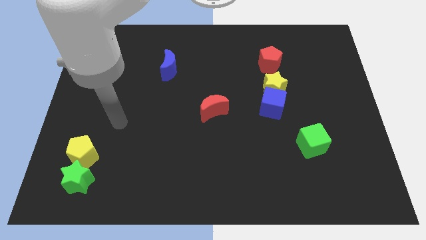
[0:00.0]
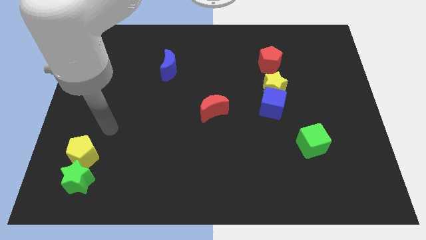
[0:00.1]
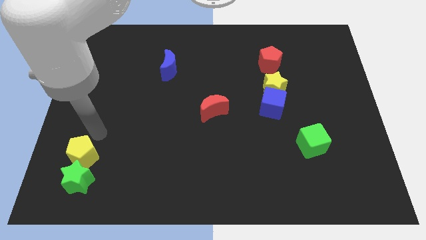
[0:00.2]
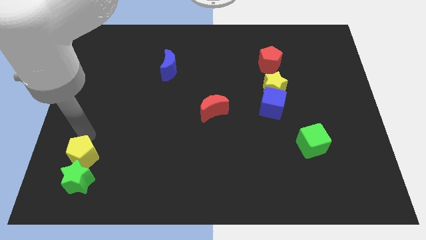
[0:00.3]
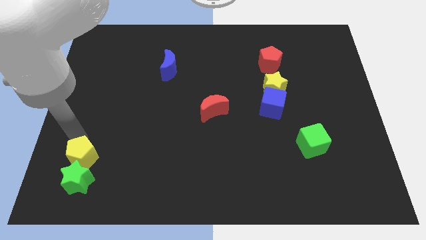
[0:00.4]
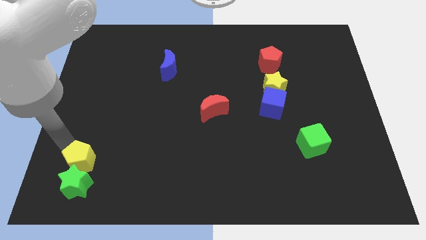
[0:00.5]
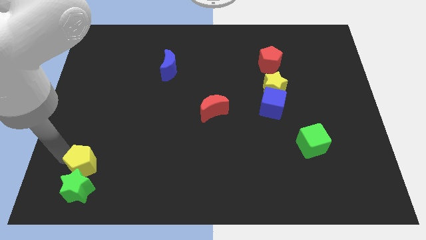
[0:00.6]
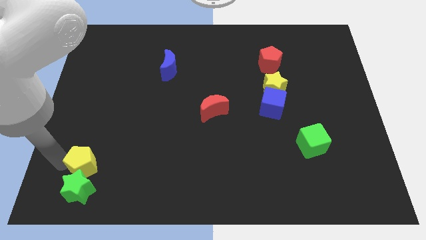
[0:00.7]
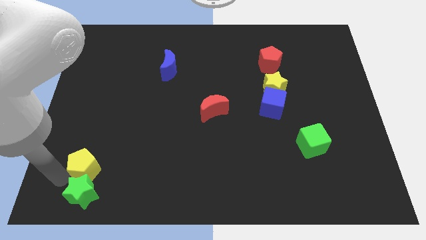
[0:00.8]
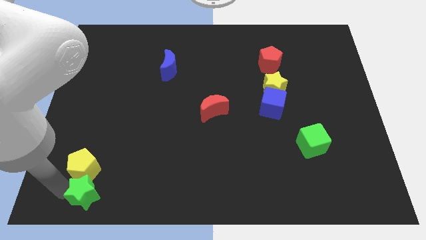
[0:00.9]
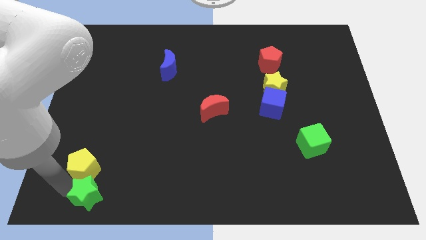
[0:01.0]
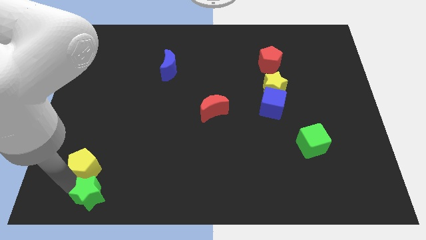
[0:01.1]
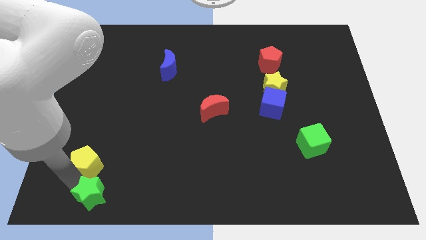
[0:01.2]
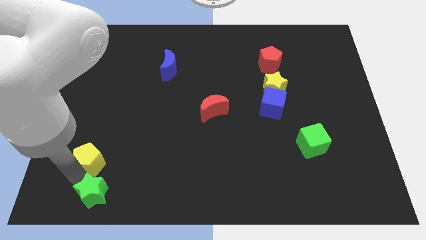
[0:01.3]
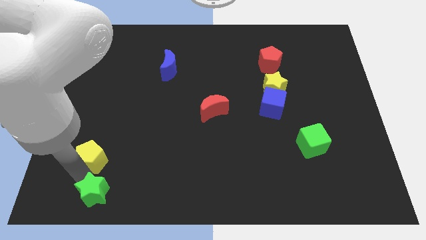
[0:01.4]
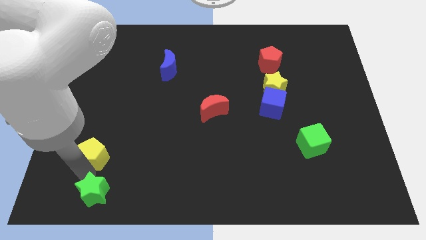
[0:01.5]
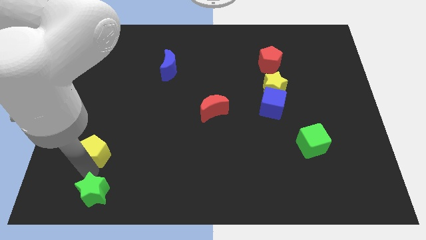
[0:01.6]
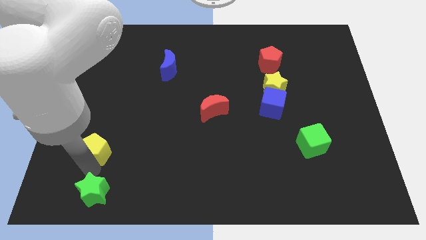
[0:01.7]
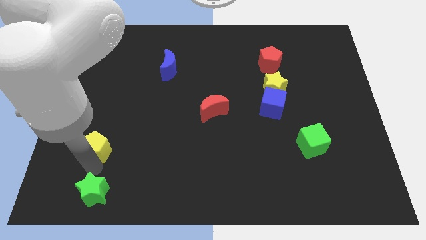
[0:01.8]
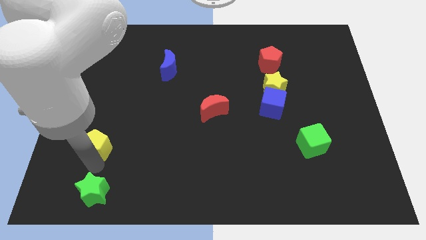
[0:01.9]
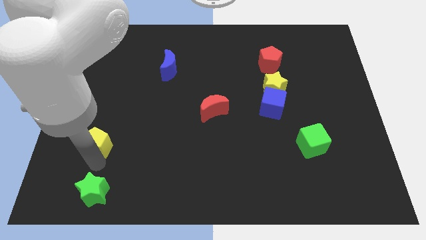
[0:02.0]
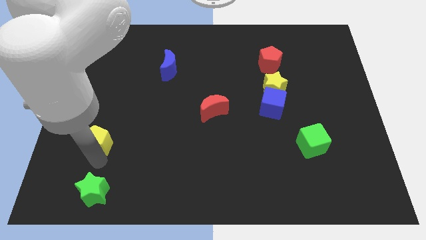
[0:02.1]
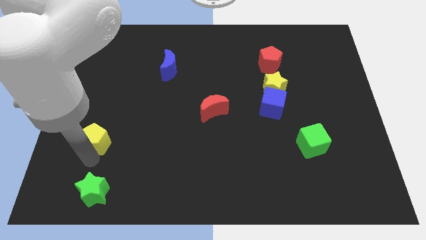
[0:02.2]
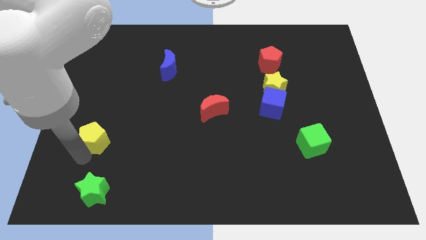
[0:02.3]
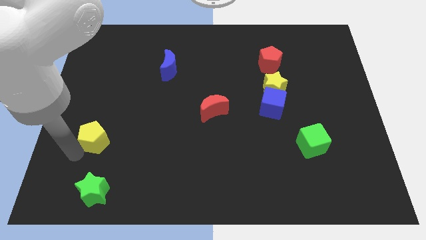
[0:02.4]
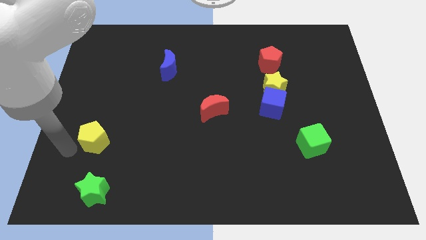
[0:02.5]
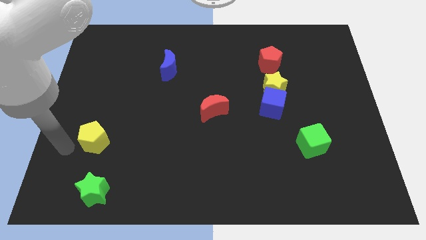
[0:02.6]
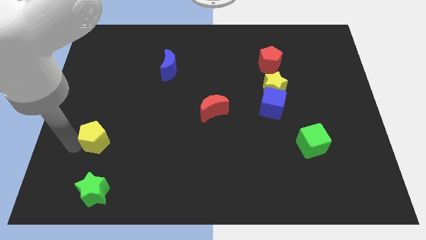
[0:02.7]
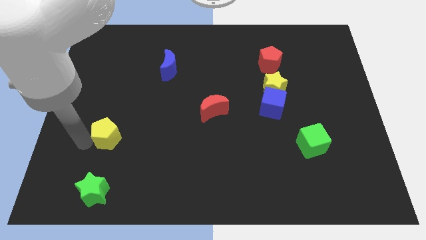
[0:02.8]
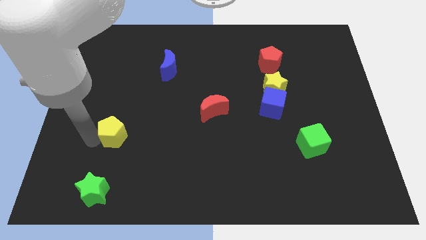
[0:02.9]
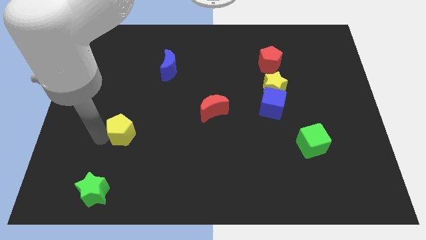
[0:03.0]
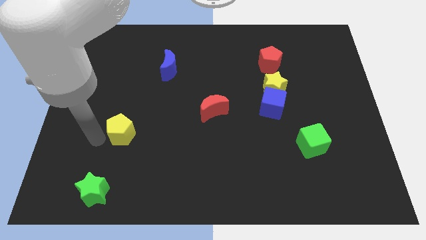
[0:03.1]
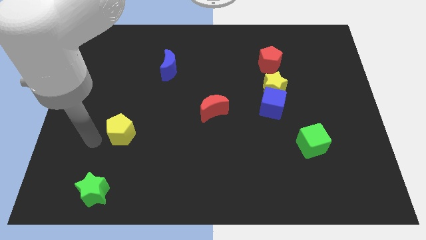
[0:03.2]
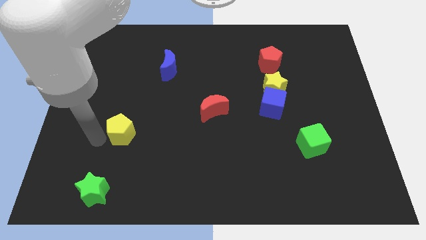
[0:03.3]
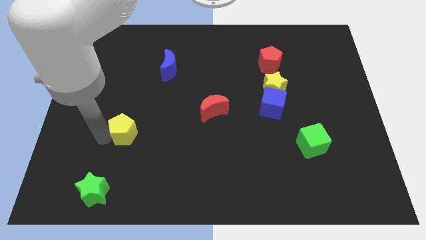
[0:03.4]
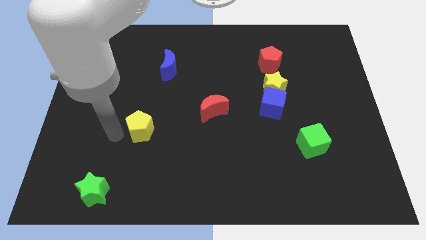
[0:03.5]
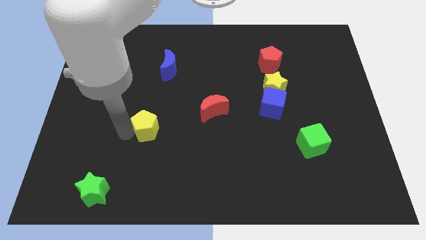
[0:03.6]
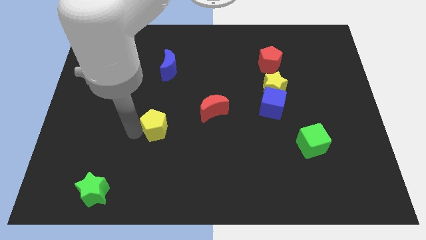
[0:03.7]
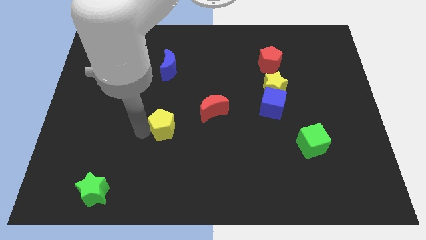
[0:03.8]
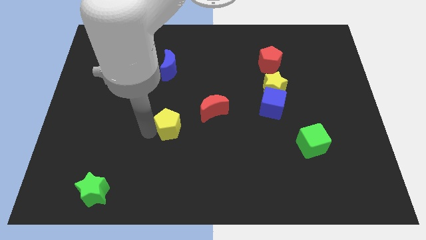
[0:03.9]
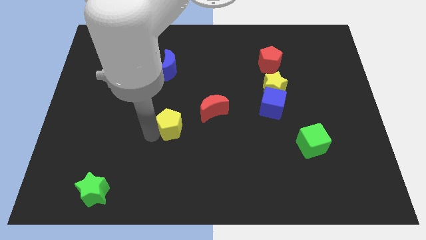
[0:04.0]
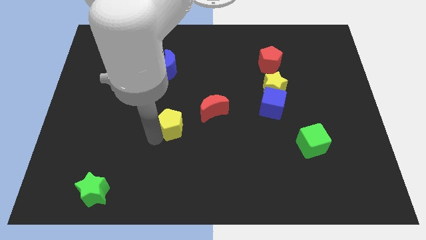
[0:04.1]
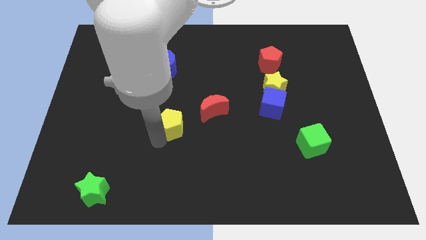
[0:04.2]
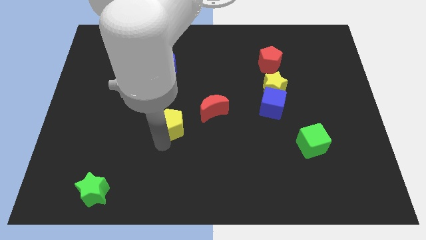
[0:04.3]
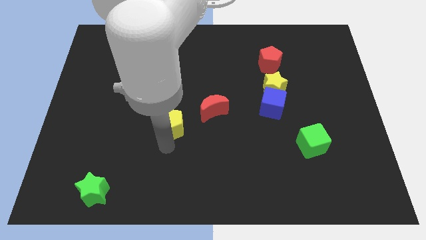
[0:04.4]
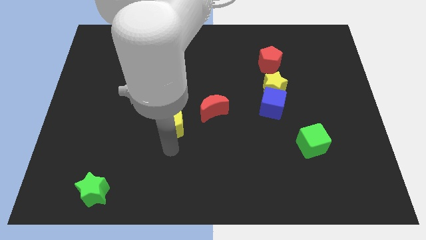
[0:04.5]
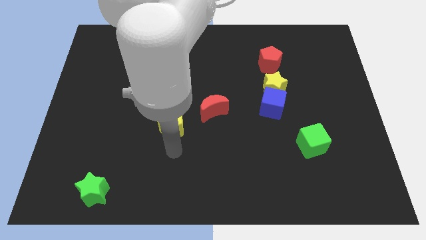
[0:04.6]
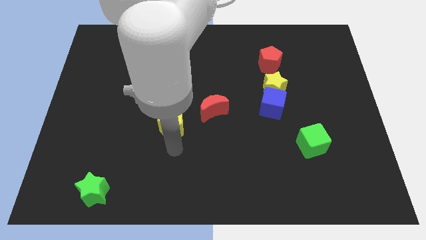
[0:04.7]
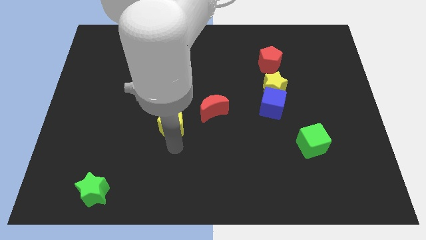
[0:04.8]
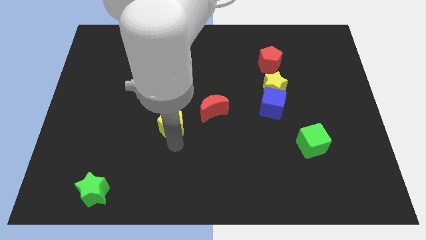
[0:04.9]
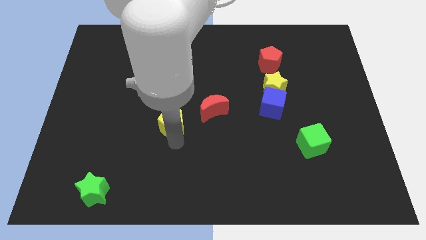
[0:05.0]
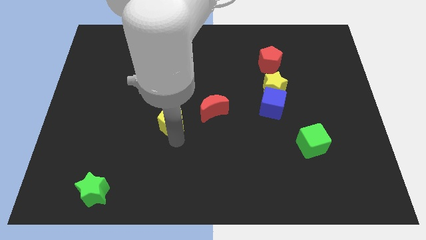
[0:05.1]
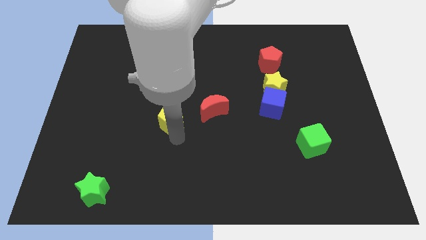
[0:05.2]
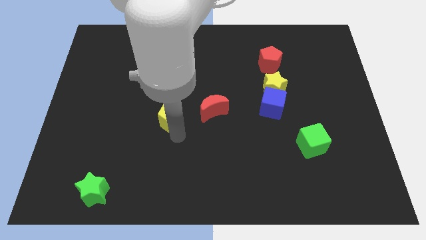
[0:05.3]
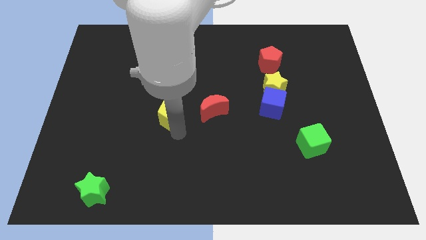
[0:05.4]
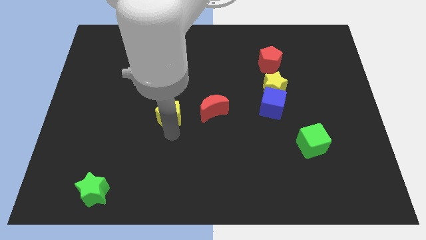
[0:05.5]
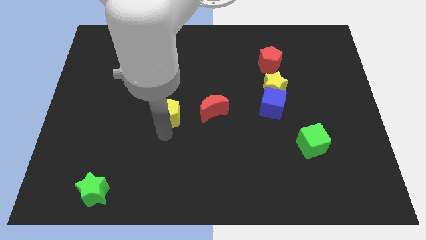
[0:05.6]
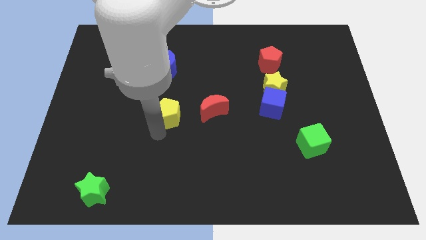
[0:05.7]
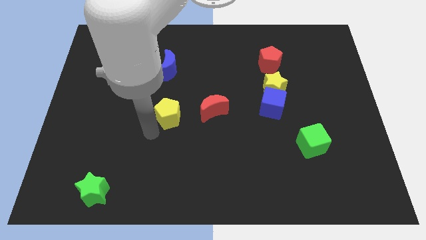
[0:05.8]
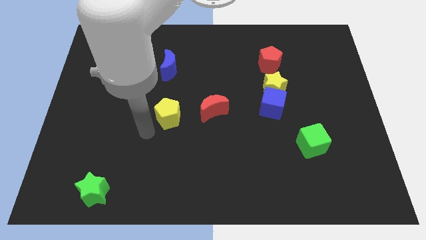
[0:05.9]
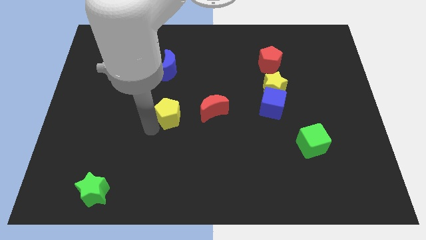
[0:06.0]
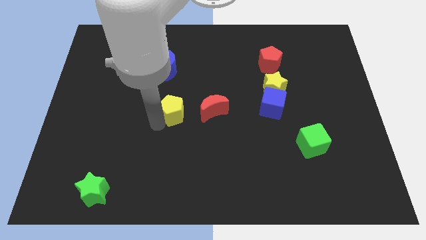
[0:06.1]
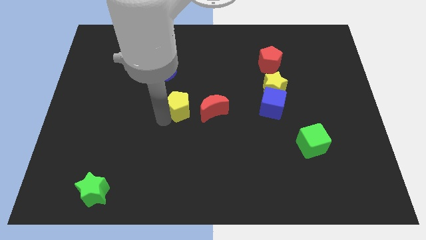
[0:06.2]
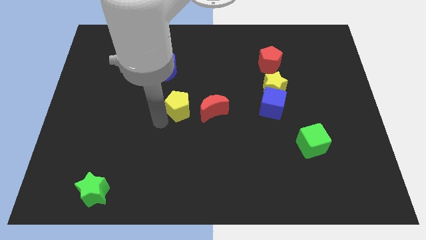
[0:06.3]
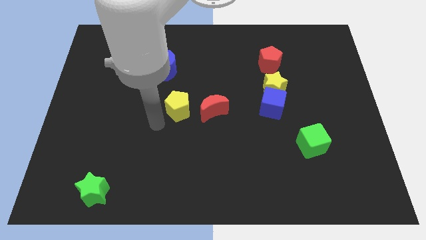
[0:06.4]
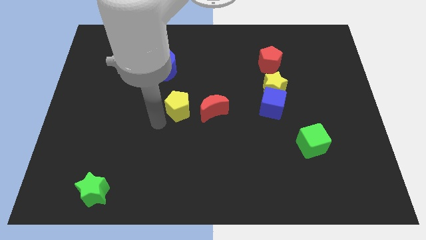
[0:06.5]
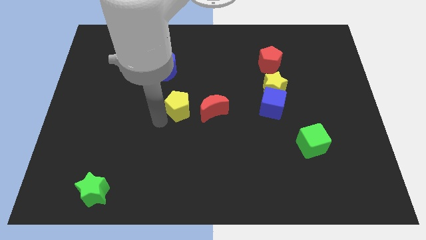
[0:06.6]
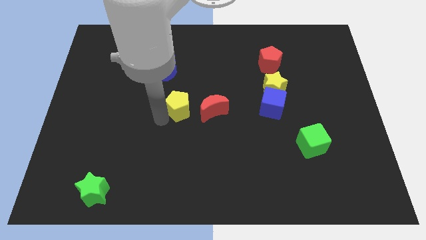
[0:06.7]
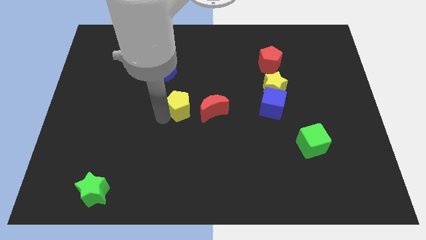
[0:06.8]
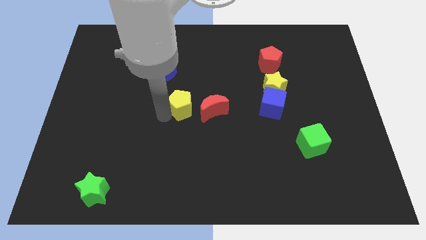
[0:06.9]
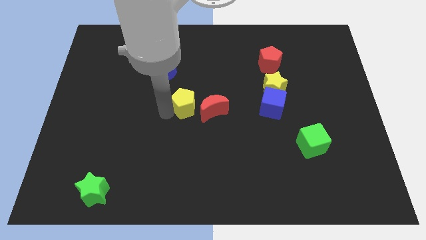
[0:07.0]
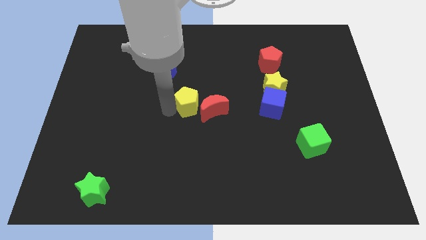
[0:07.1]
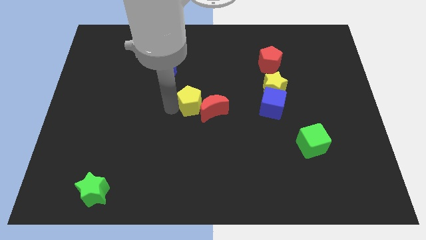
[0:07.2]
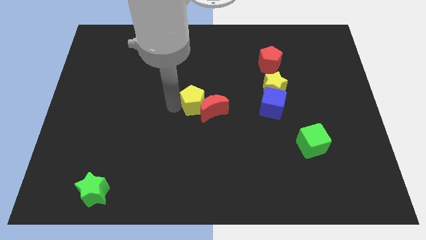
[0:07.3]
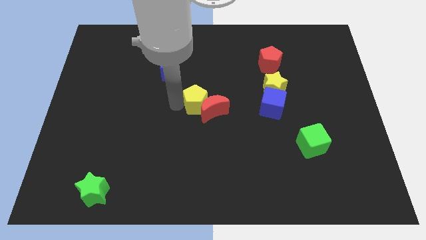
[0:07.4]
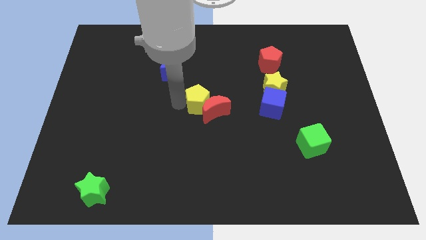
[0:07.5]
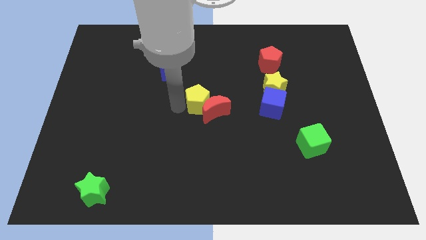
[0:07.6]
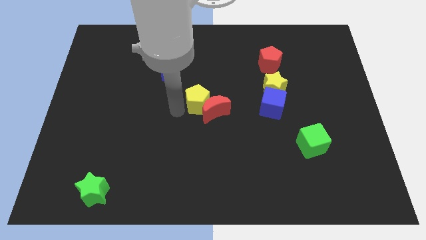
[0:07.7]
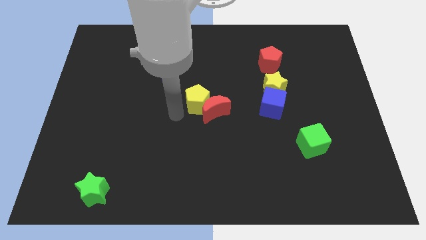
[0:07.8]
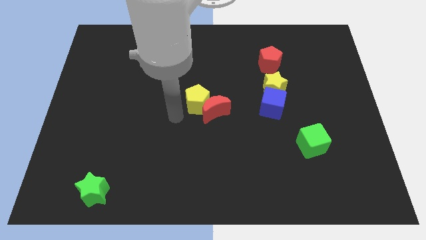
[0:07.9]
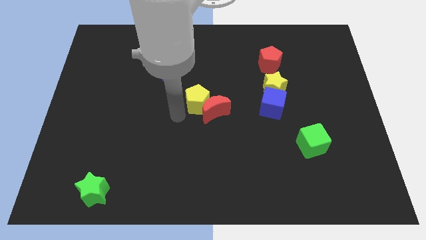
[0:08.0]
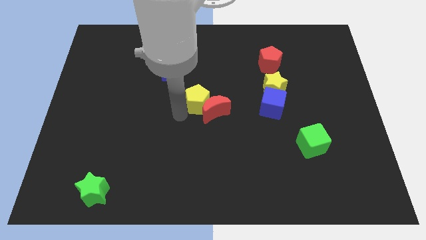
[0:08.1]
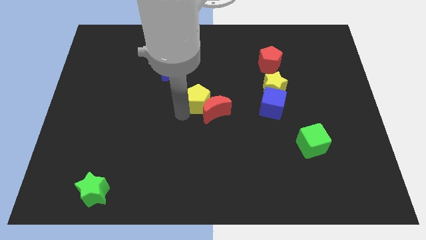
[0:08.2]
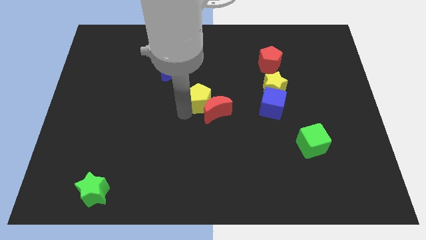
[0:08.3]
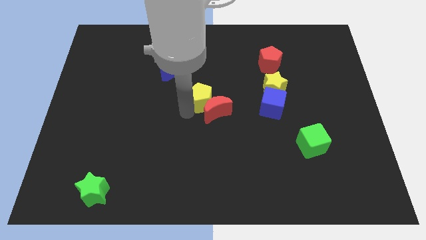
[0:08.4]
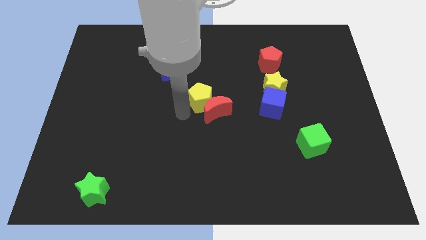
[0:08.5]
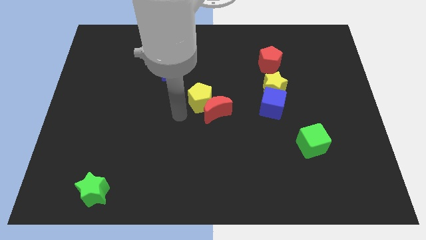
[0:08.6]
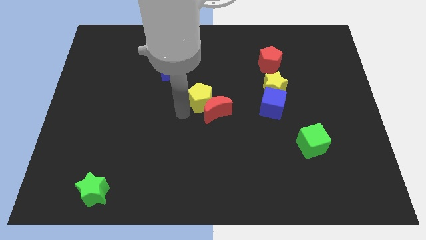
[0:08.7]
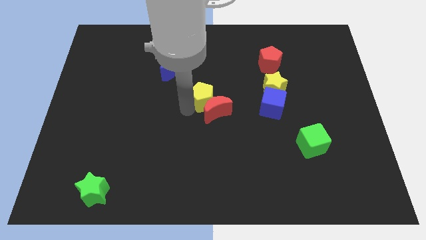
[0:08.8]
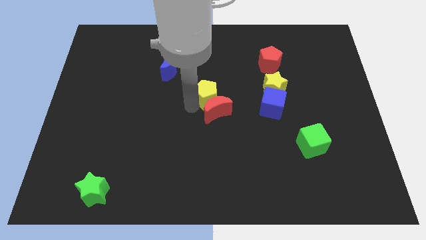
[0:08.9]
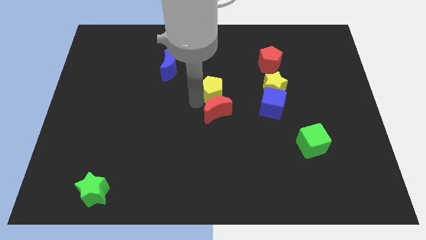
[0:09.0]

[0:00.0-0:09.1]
slide the yellow pentagon diagonally up and to the right of the red moon
